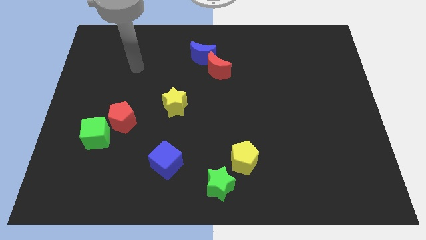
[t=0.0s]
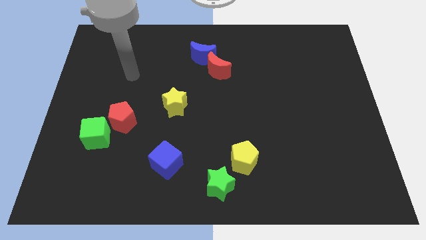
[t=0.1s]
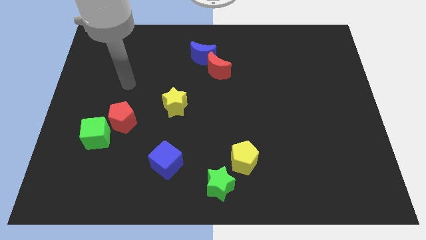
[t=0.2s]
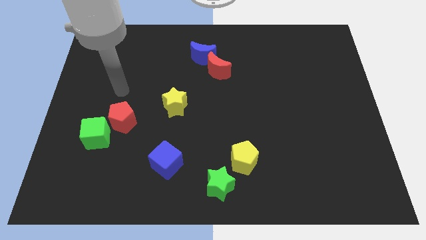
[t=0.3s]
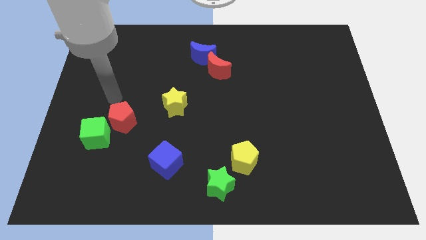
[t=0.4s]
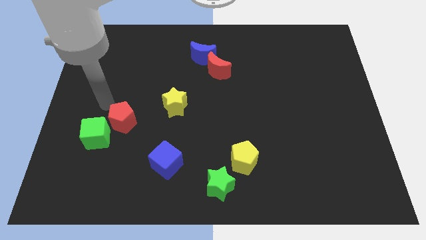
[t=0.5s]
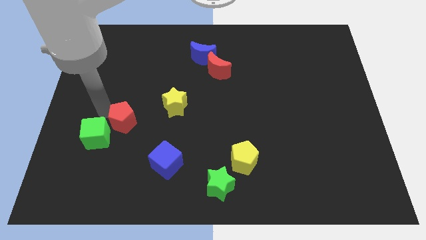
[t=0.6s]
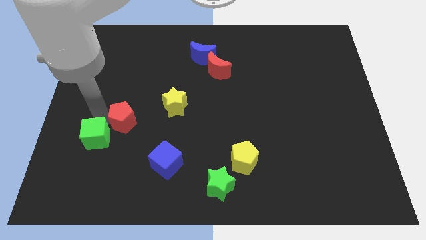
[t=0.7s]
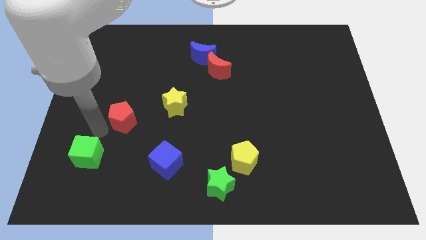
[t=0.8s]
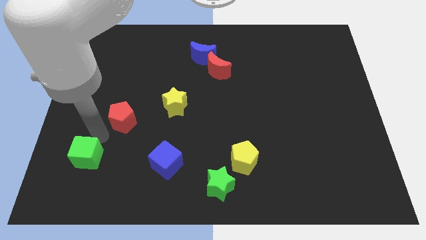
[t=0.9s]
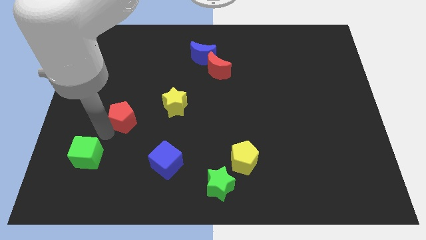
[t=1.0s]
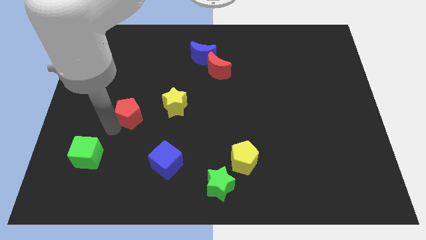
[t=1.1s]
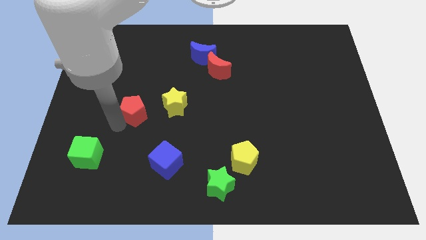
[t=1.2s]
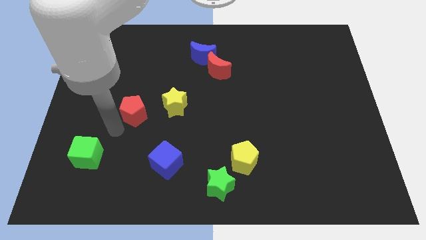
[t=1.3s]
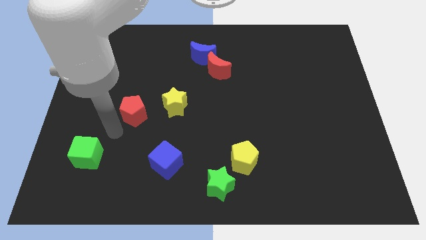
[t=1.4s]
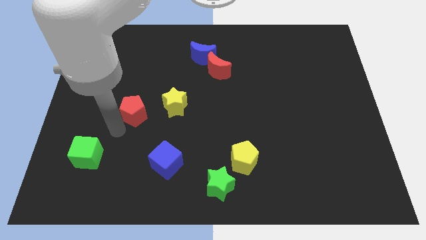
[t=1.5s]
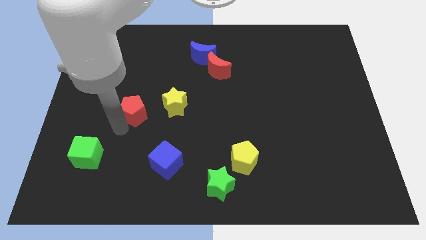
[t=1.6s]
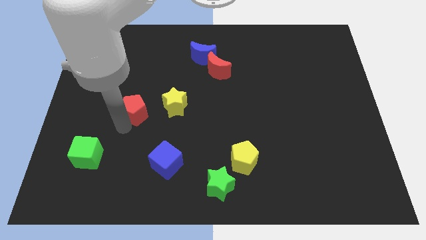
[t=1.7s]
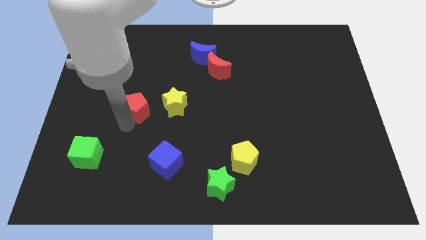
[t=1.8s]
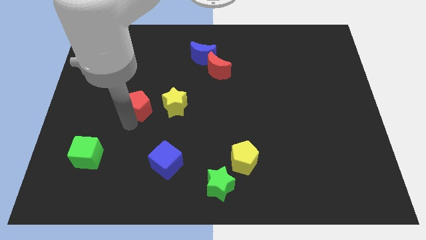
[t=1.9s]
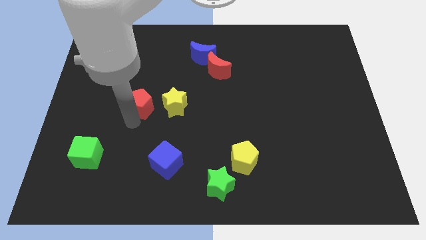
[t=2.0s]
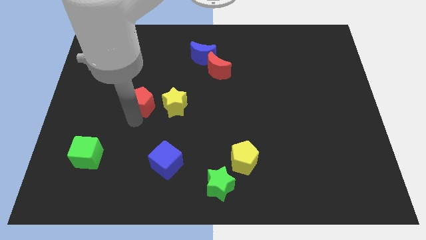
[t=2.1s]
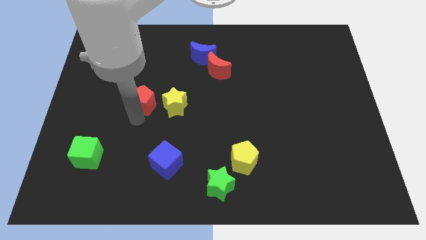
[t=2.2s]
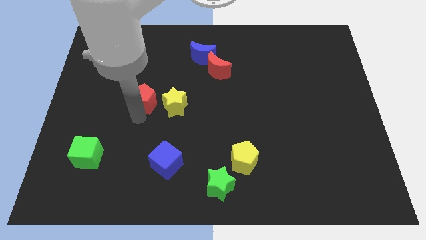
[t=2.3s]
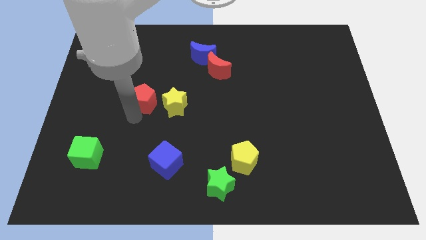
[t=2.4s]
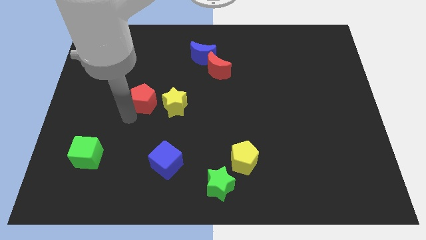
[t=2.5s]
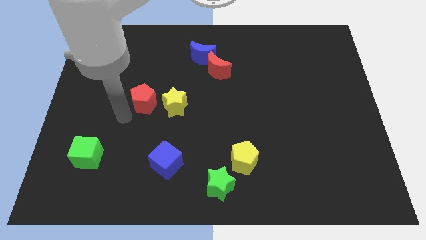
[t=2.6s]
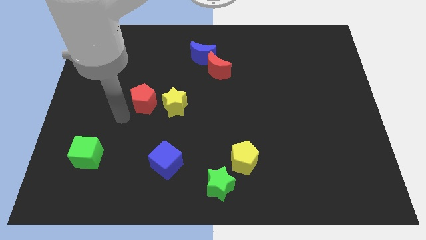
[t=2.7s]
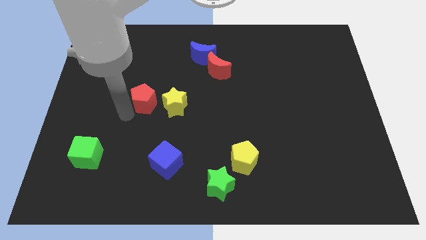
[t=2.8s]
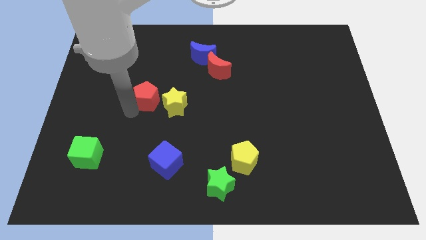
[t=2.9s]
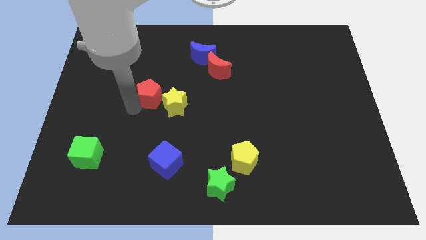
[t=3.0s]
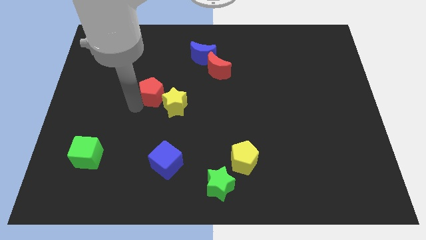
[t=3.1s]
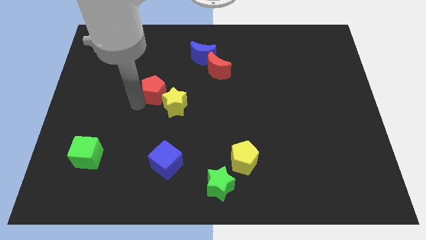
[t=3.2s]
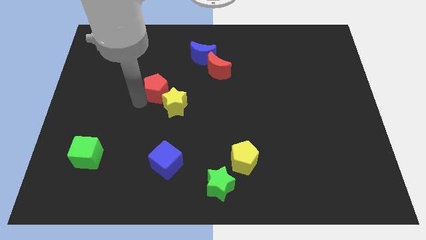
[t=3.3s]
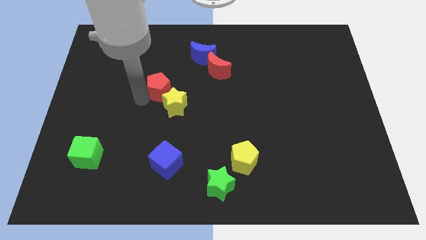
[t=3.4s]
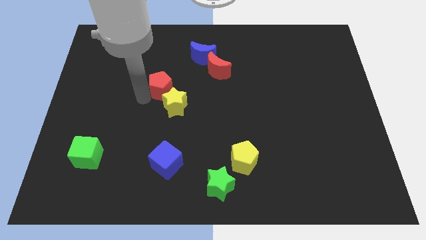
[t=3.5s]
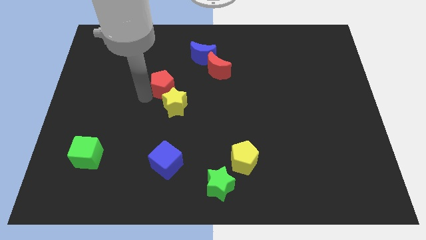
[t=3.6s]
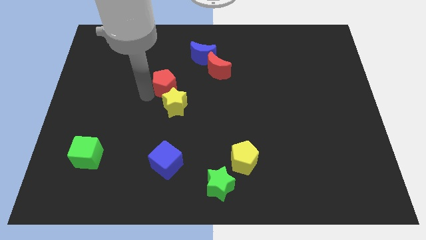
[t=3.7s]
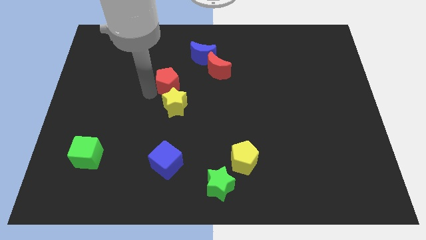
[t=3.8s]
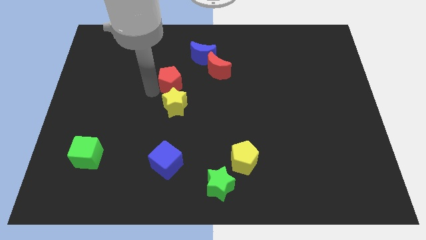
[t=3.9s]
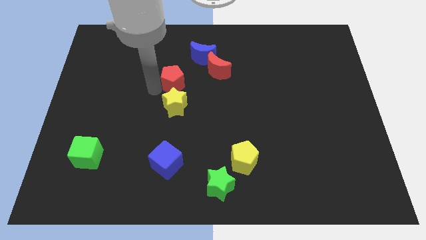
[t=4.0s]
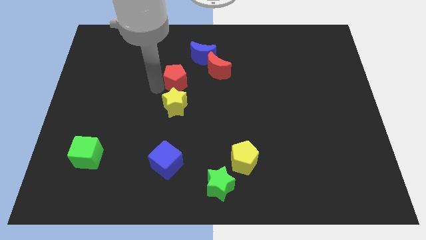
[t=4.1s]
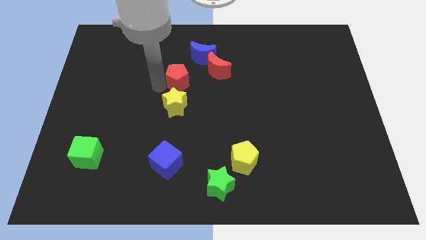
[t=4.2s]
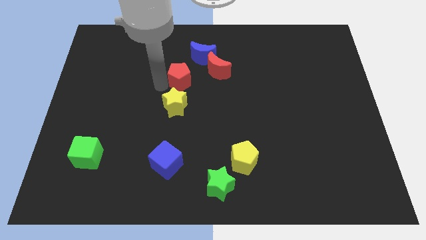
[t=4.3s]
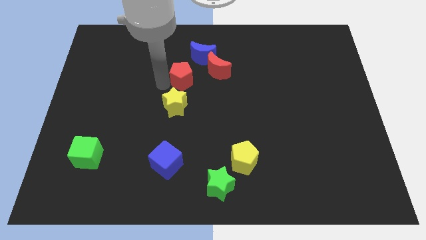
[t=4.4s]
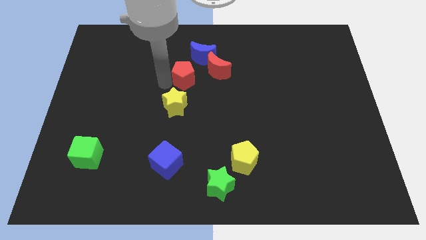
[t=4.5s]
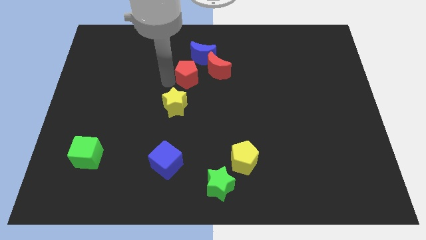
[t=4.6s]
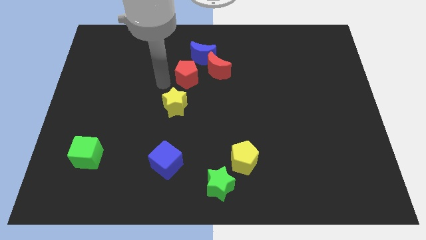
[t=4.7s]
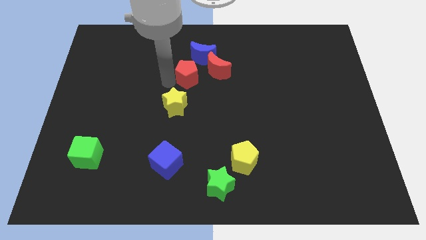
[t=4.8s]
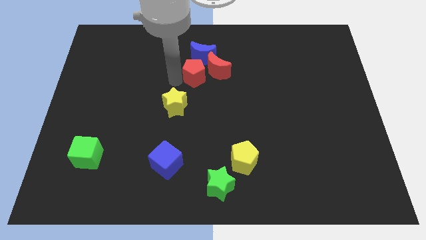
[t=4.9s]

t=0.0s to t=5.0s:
push the red pentagon next to the red moon

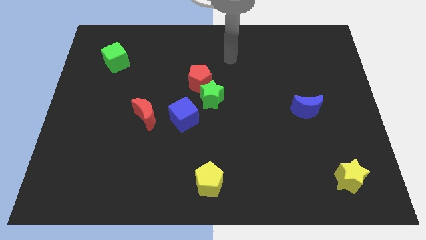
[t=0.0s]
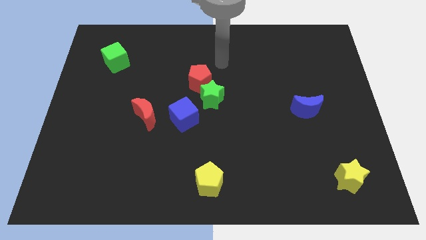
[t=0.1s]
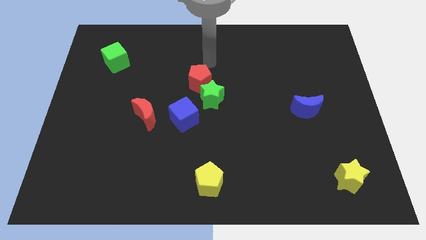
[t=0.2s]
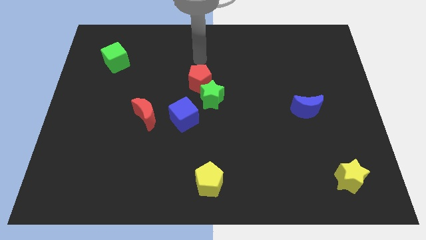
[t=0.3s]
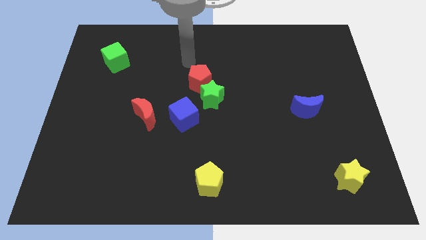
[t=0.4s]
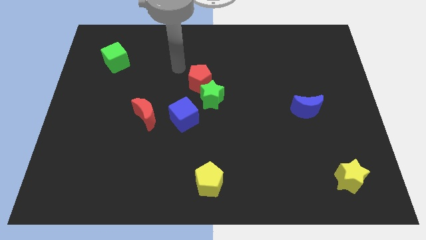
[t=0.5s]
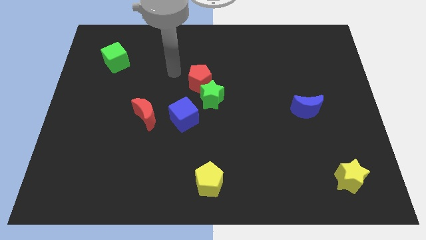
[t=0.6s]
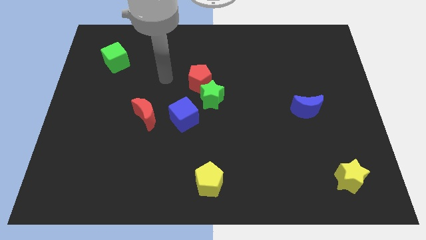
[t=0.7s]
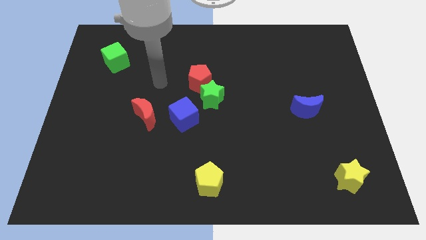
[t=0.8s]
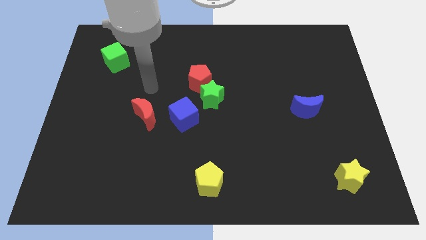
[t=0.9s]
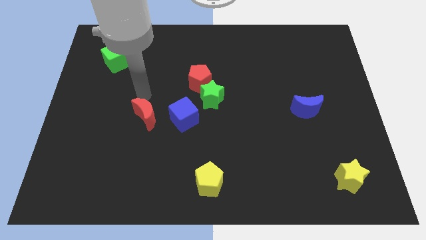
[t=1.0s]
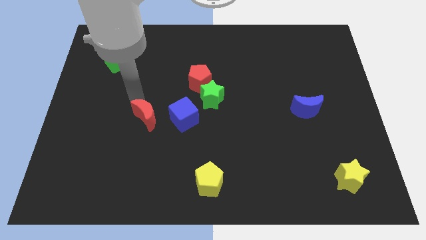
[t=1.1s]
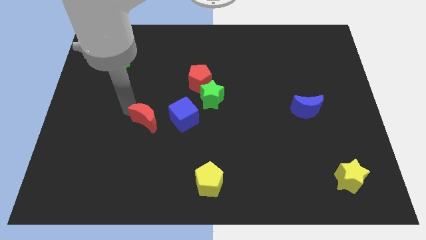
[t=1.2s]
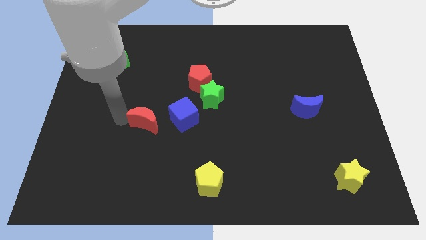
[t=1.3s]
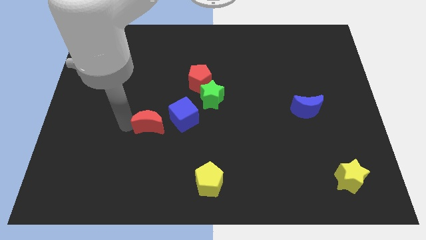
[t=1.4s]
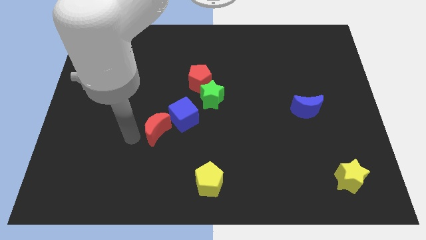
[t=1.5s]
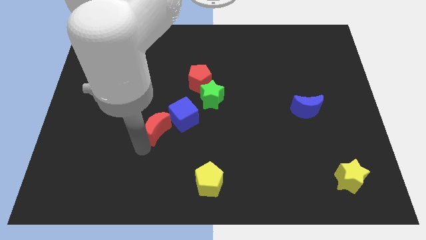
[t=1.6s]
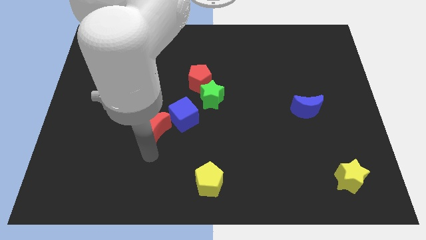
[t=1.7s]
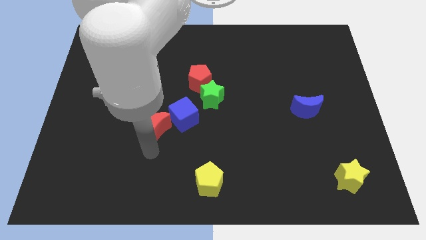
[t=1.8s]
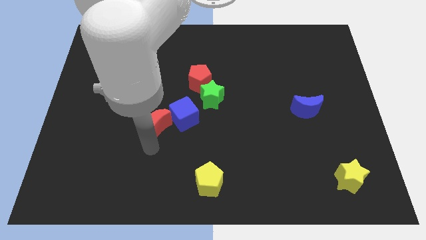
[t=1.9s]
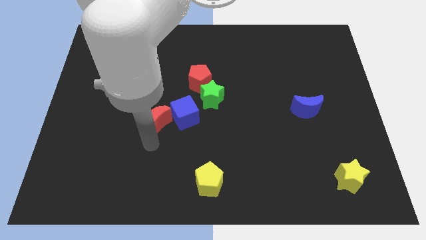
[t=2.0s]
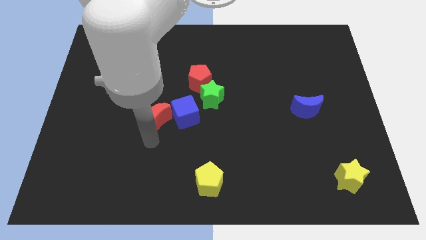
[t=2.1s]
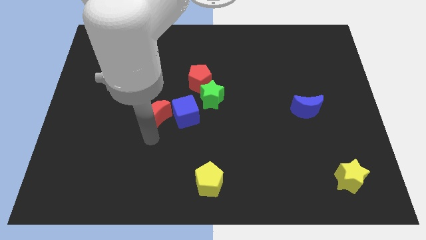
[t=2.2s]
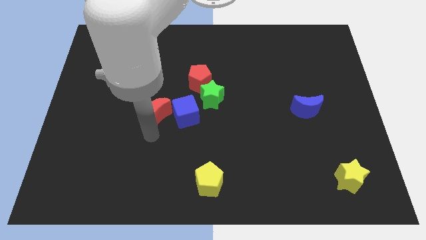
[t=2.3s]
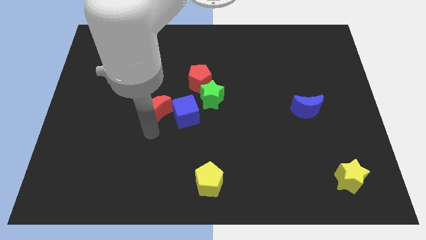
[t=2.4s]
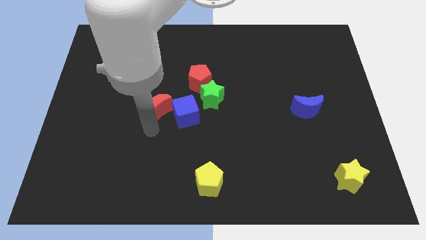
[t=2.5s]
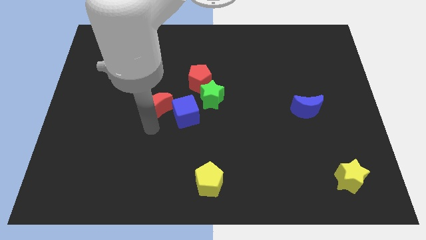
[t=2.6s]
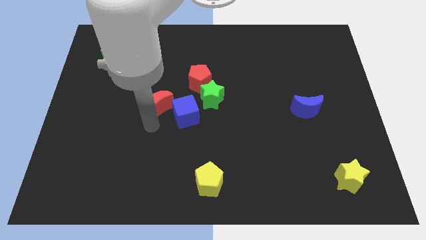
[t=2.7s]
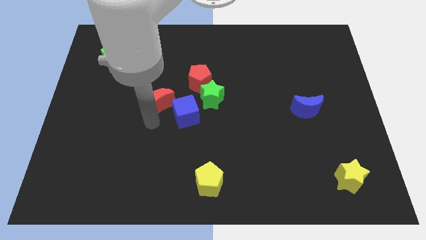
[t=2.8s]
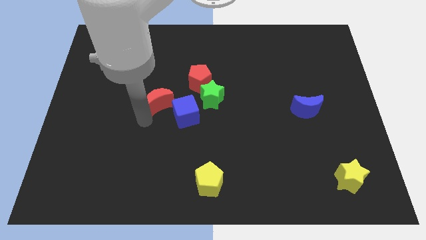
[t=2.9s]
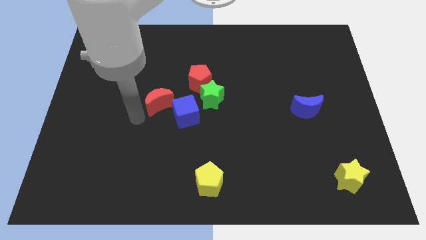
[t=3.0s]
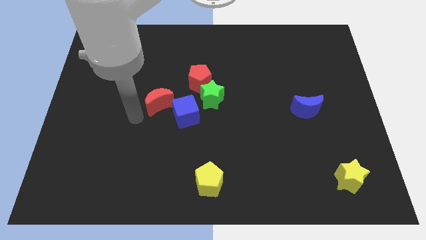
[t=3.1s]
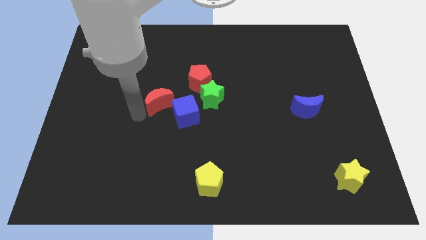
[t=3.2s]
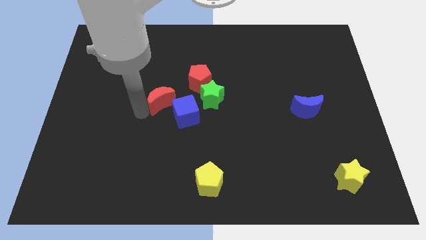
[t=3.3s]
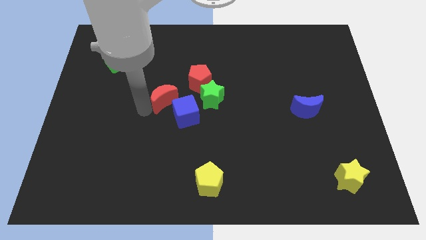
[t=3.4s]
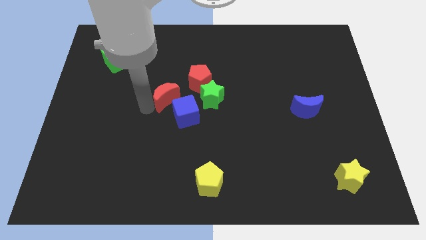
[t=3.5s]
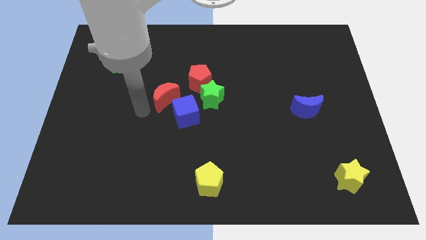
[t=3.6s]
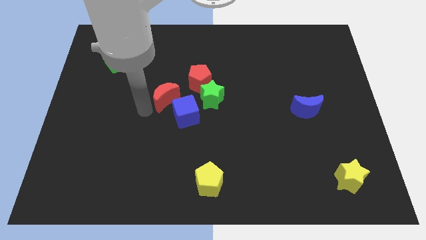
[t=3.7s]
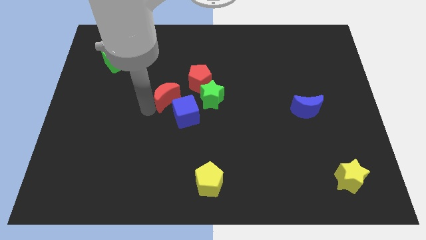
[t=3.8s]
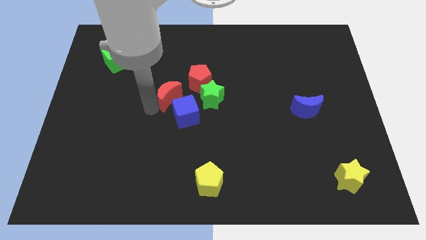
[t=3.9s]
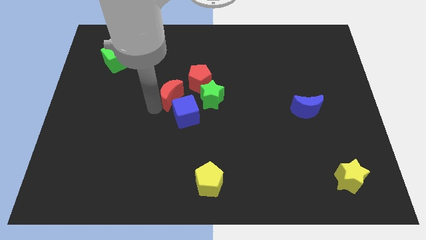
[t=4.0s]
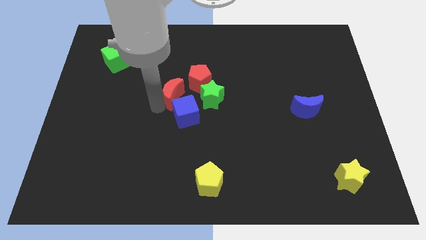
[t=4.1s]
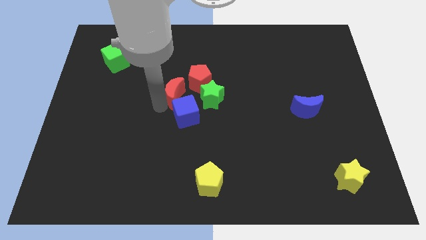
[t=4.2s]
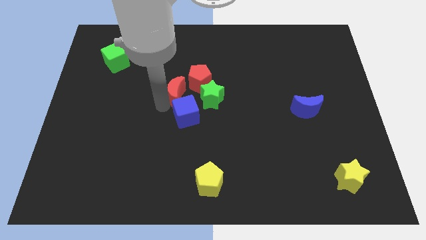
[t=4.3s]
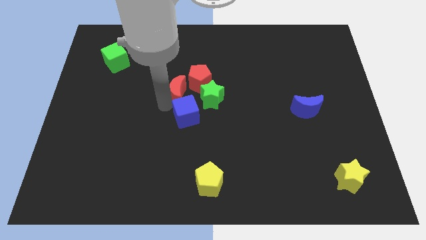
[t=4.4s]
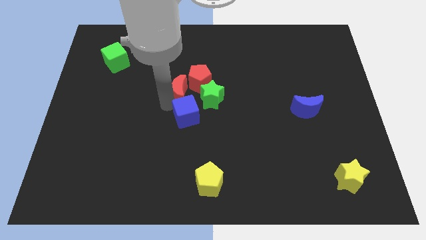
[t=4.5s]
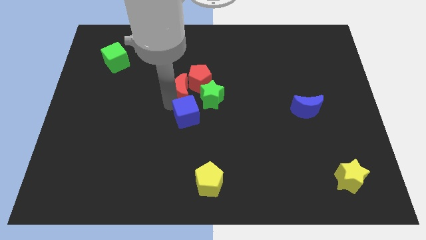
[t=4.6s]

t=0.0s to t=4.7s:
push the red moon next to the red pentagon
